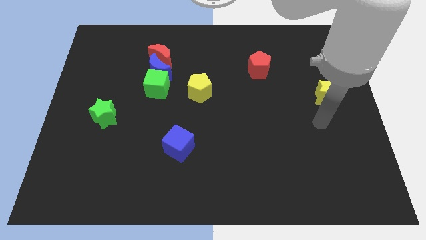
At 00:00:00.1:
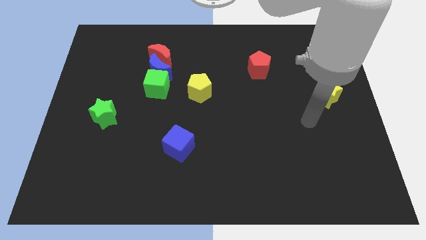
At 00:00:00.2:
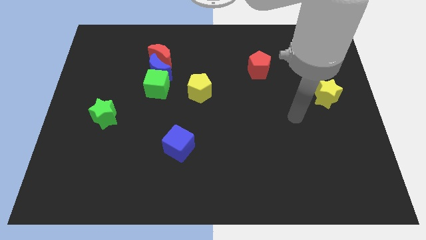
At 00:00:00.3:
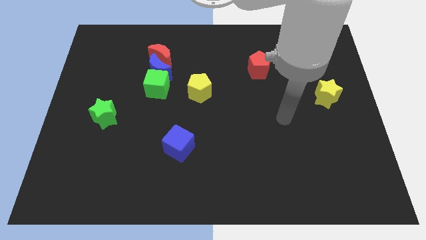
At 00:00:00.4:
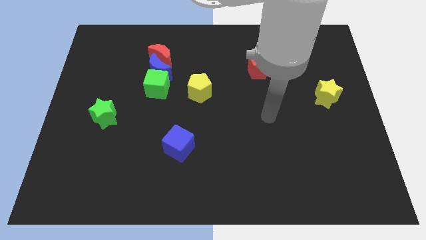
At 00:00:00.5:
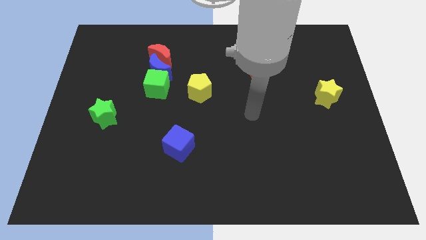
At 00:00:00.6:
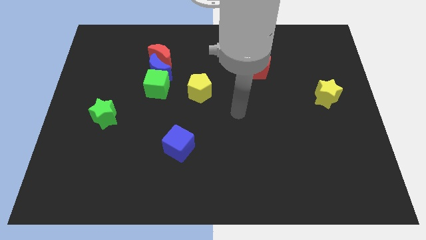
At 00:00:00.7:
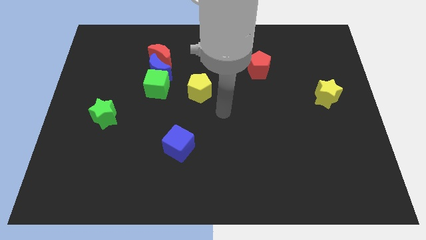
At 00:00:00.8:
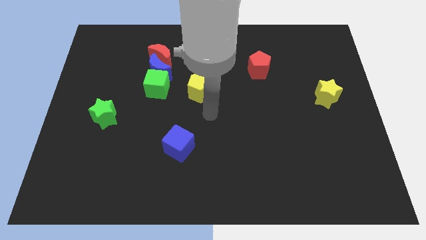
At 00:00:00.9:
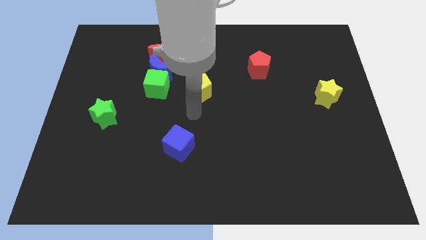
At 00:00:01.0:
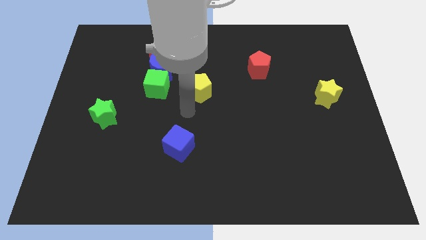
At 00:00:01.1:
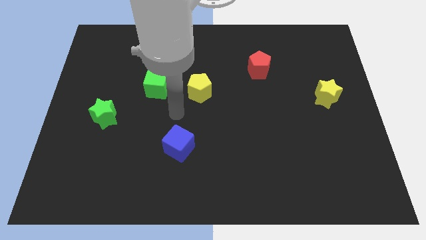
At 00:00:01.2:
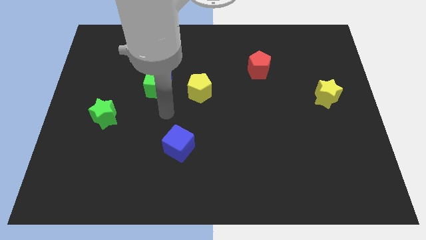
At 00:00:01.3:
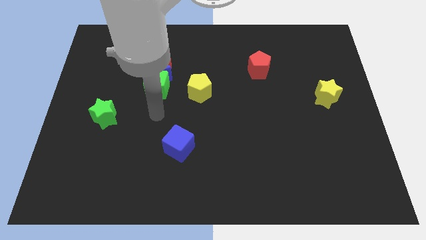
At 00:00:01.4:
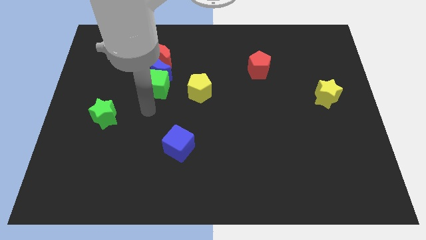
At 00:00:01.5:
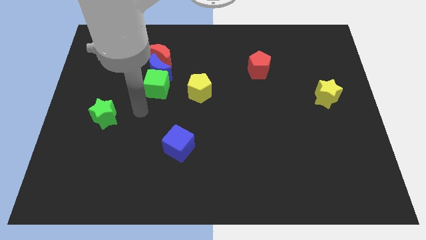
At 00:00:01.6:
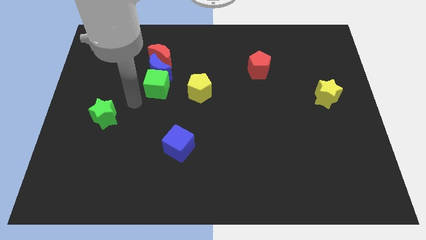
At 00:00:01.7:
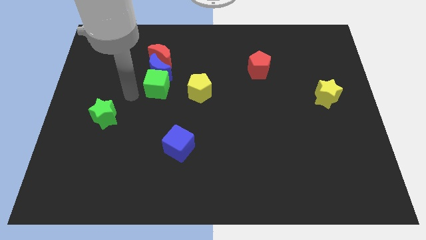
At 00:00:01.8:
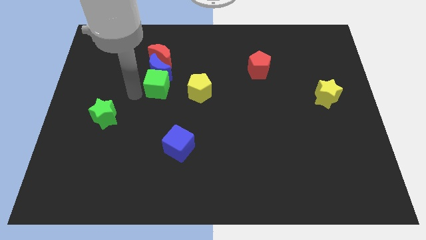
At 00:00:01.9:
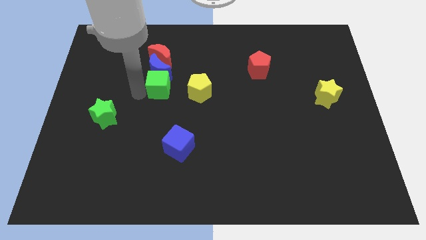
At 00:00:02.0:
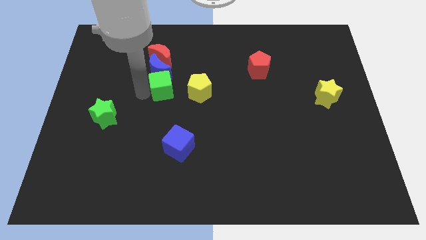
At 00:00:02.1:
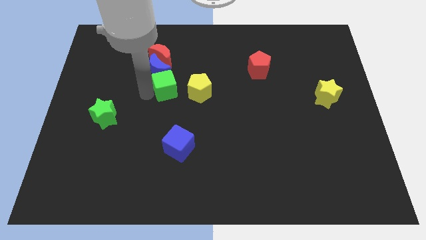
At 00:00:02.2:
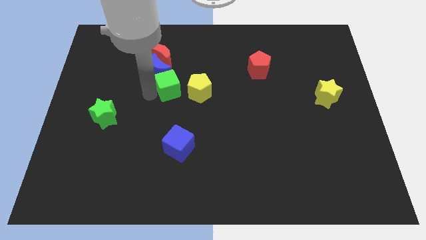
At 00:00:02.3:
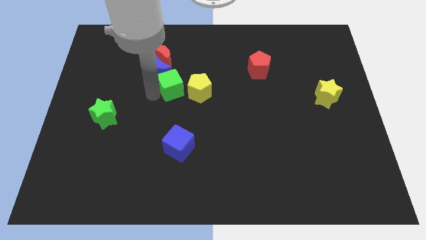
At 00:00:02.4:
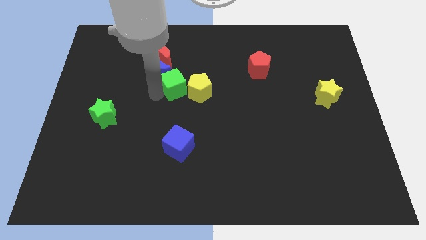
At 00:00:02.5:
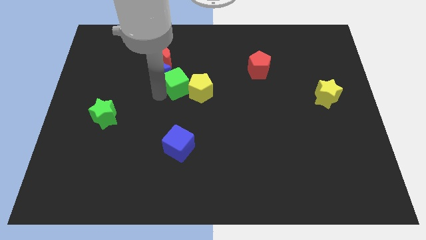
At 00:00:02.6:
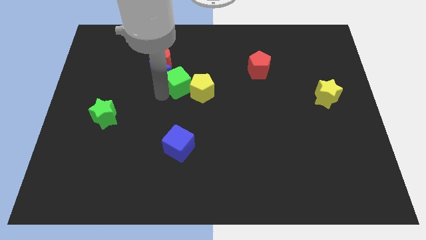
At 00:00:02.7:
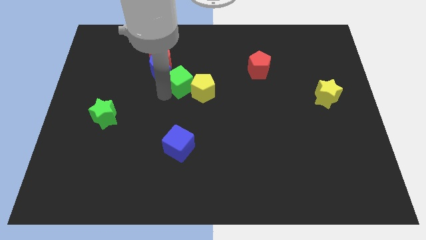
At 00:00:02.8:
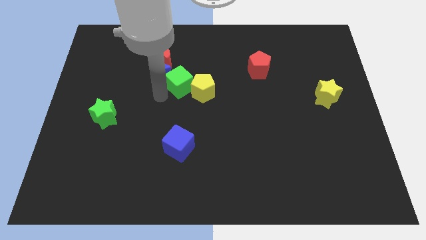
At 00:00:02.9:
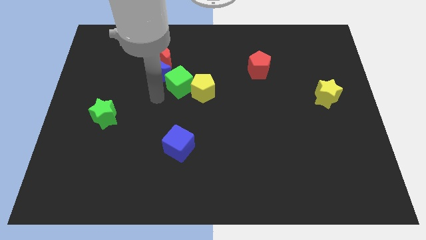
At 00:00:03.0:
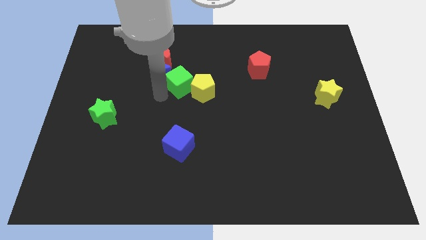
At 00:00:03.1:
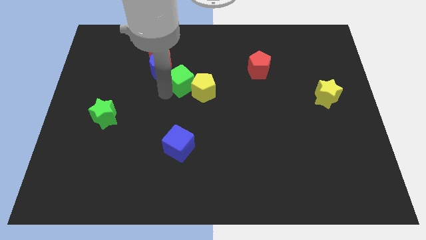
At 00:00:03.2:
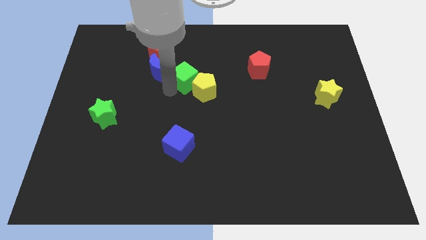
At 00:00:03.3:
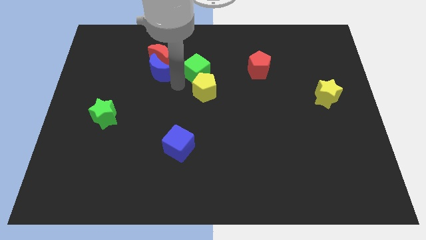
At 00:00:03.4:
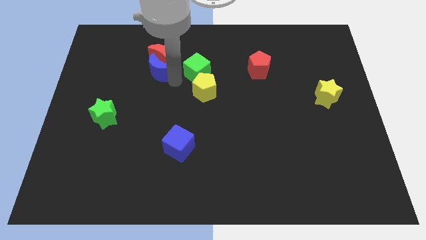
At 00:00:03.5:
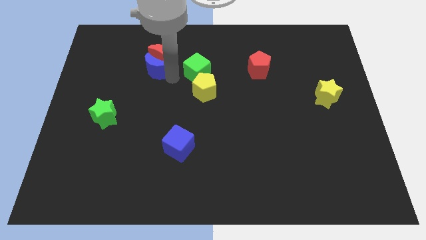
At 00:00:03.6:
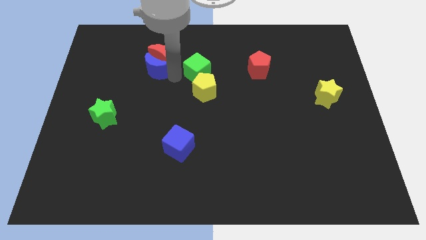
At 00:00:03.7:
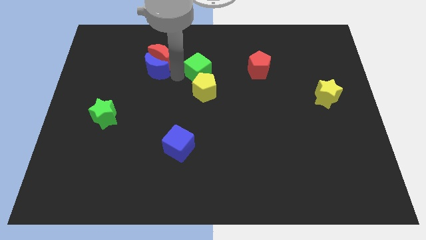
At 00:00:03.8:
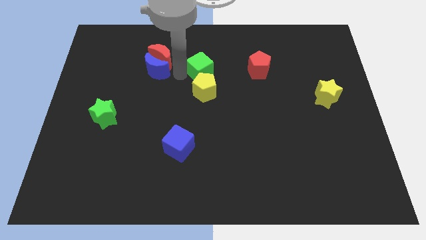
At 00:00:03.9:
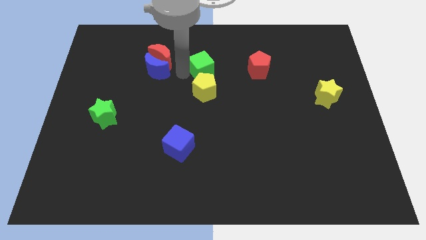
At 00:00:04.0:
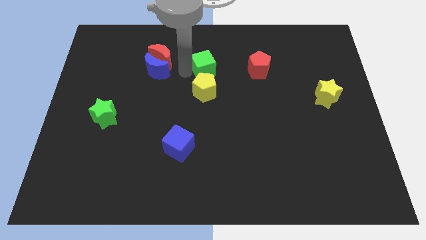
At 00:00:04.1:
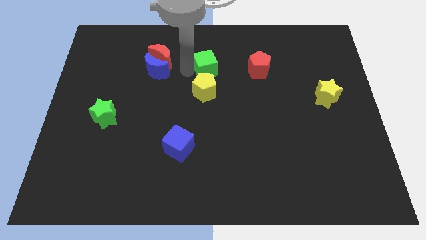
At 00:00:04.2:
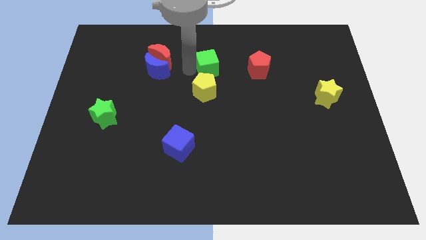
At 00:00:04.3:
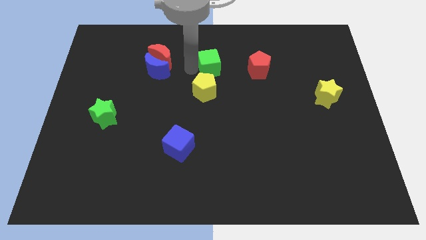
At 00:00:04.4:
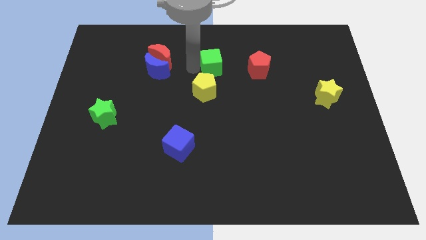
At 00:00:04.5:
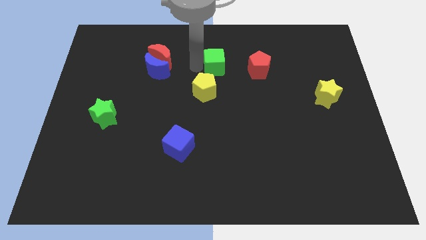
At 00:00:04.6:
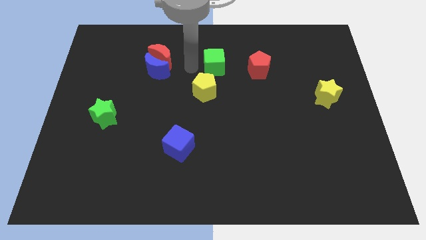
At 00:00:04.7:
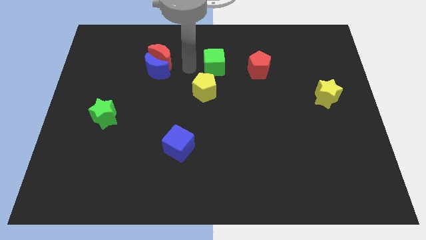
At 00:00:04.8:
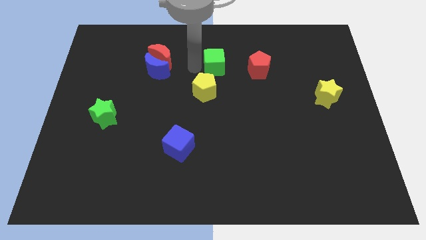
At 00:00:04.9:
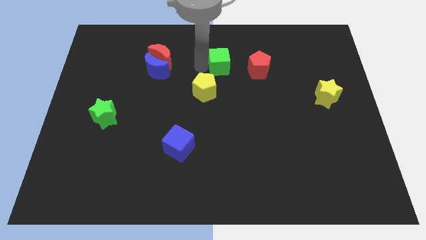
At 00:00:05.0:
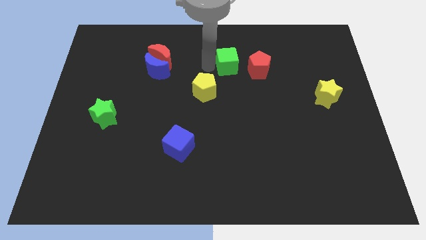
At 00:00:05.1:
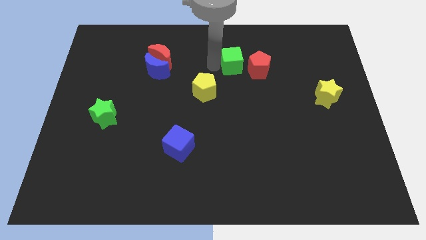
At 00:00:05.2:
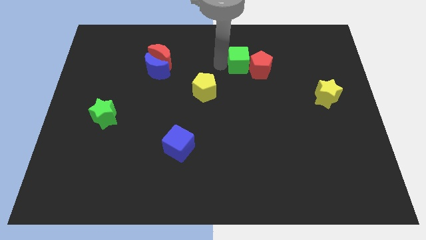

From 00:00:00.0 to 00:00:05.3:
put the green cube close to the red pentagon

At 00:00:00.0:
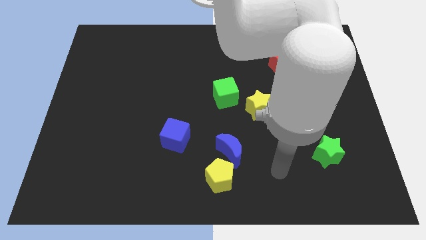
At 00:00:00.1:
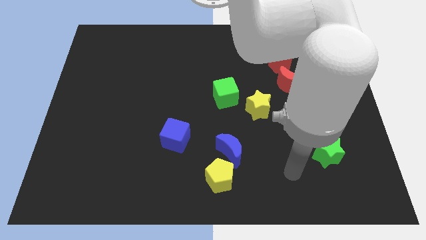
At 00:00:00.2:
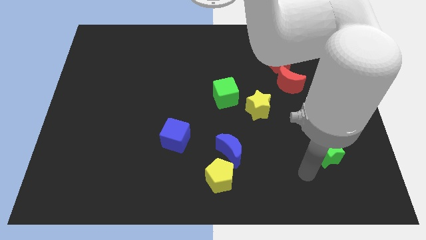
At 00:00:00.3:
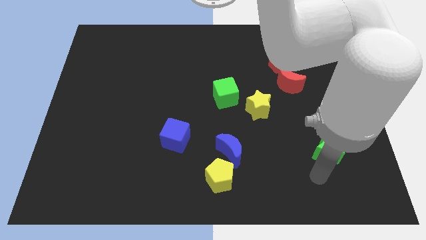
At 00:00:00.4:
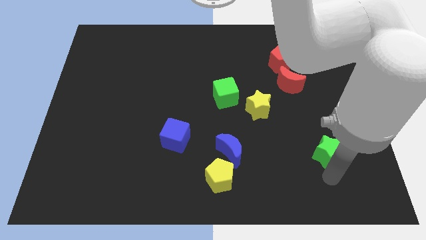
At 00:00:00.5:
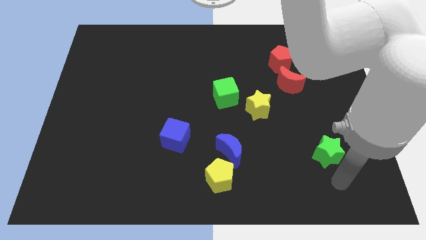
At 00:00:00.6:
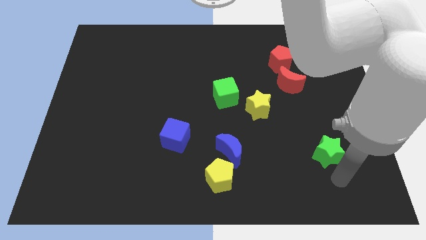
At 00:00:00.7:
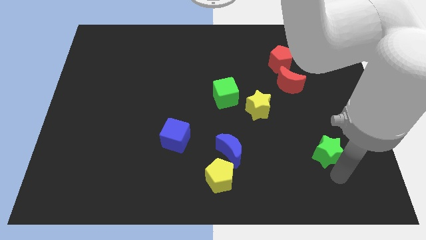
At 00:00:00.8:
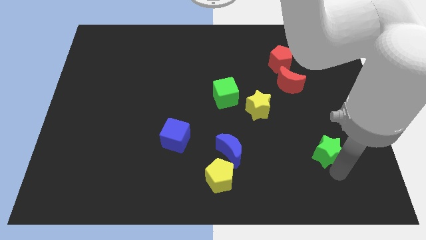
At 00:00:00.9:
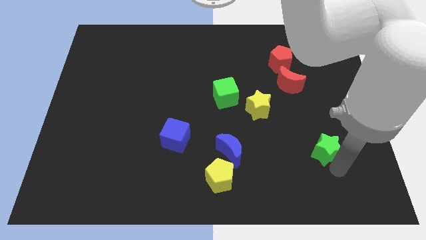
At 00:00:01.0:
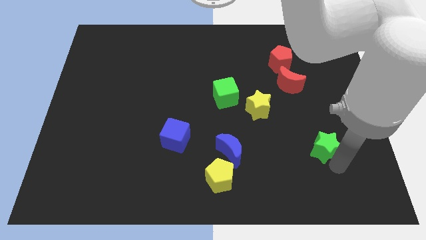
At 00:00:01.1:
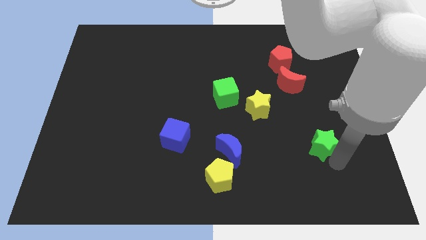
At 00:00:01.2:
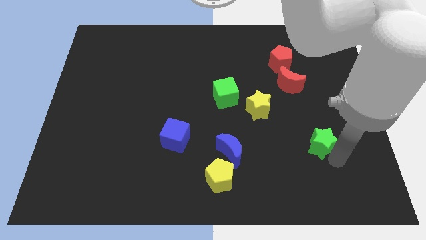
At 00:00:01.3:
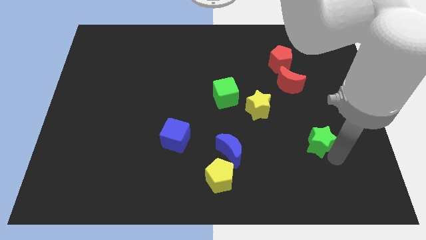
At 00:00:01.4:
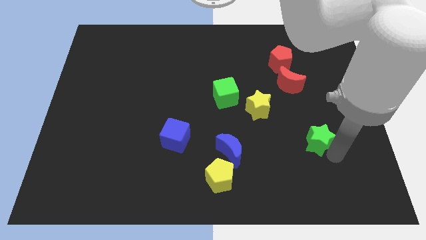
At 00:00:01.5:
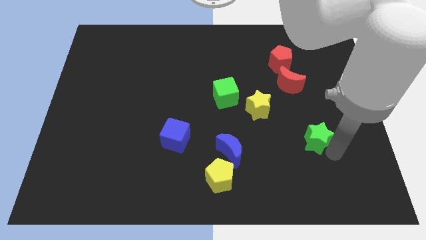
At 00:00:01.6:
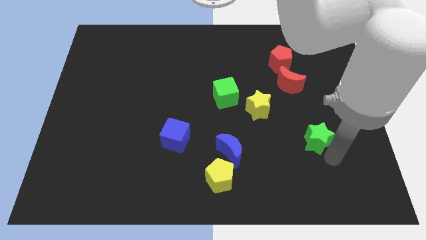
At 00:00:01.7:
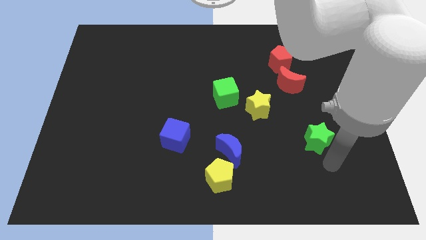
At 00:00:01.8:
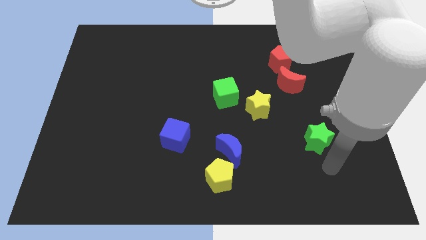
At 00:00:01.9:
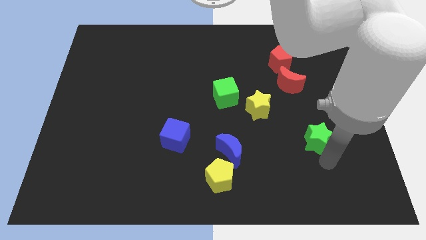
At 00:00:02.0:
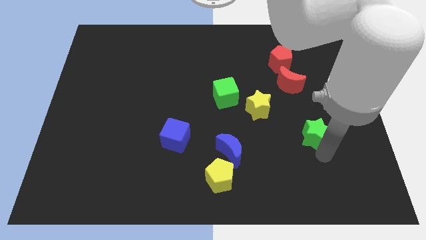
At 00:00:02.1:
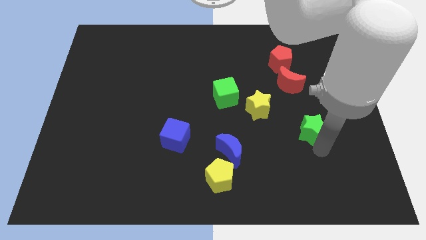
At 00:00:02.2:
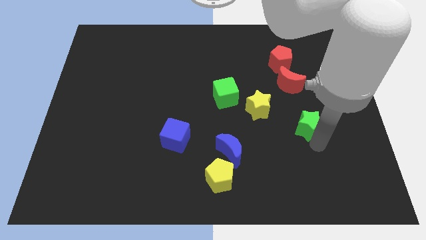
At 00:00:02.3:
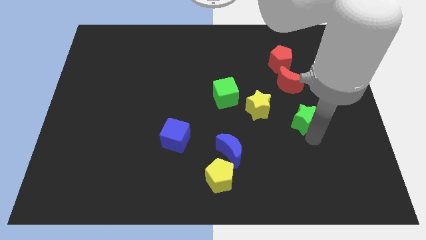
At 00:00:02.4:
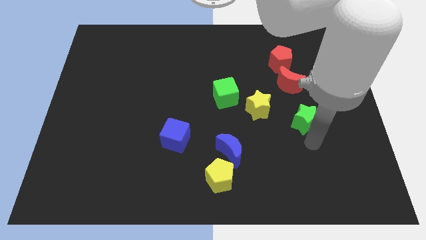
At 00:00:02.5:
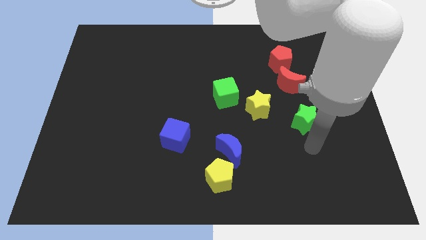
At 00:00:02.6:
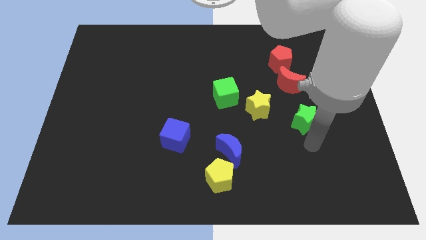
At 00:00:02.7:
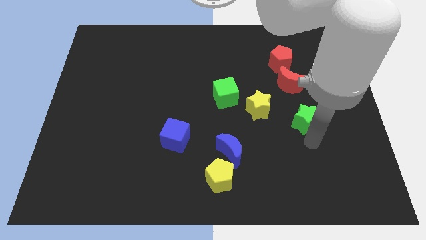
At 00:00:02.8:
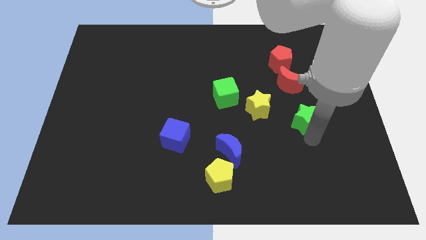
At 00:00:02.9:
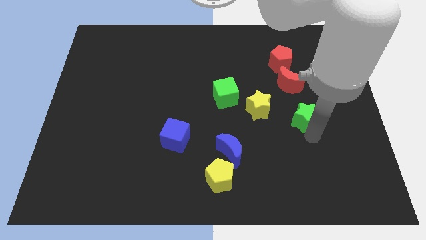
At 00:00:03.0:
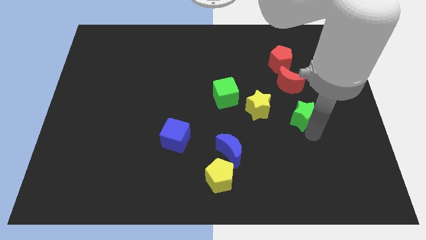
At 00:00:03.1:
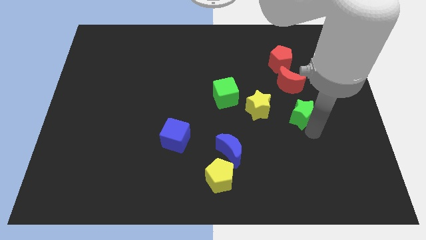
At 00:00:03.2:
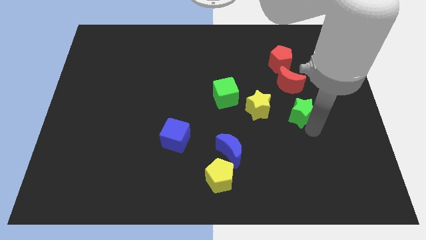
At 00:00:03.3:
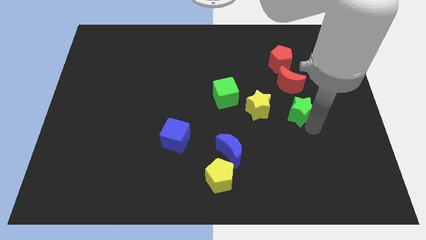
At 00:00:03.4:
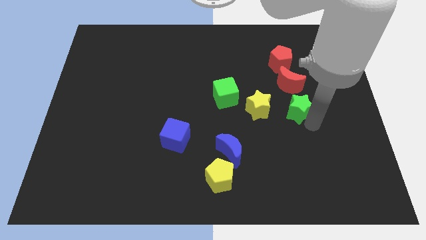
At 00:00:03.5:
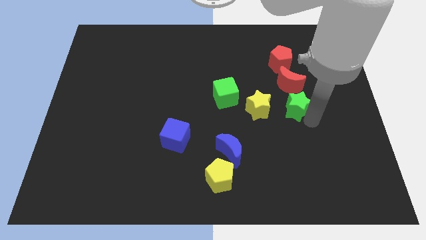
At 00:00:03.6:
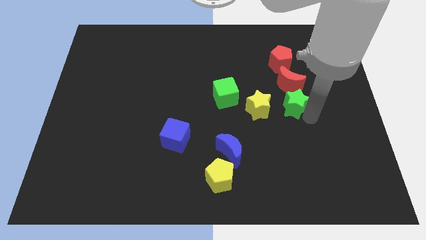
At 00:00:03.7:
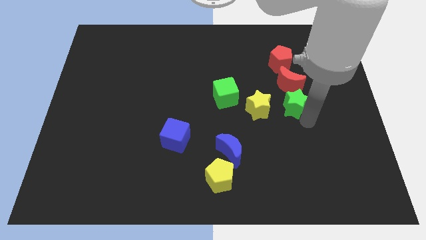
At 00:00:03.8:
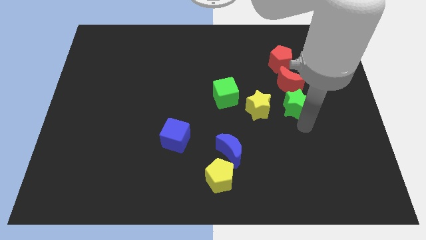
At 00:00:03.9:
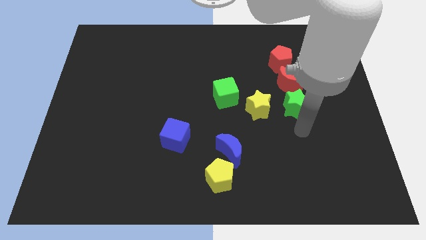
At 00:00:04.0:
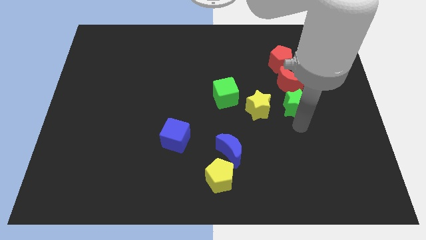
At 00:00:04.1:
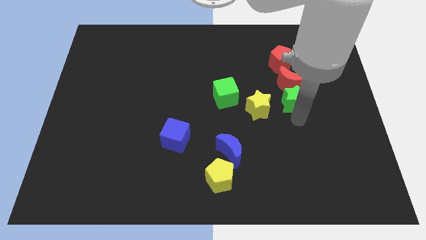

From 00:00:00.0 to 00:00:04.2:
slide the green star close to the red moon
